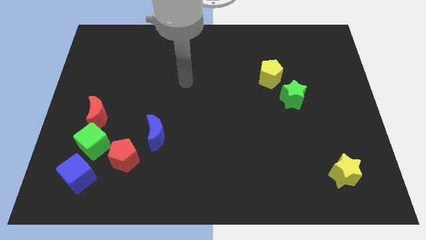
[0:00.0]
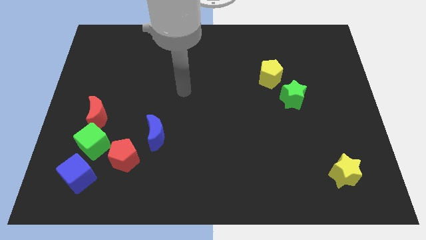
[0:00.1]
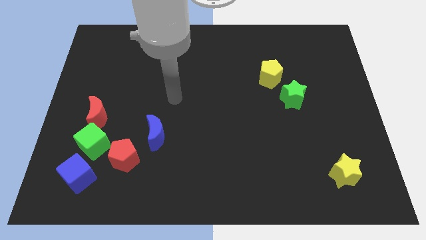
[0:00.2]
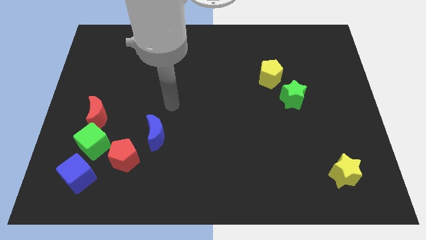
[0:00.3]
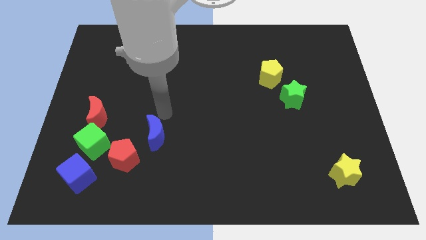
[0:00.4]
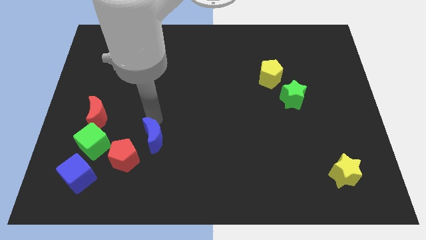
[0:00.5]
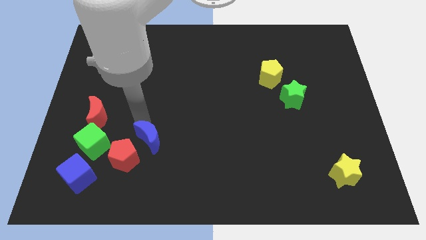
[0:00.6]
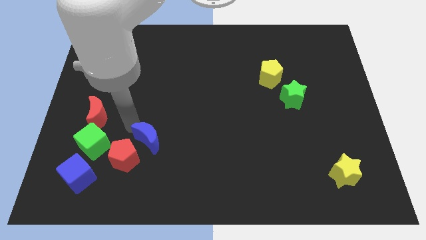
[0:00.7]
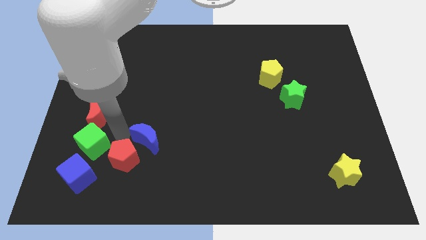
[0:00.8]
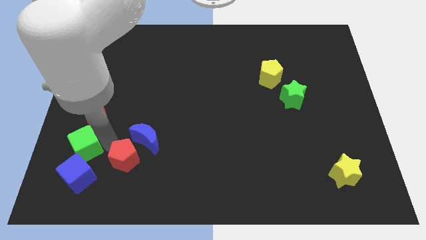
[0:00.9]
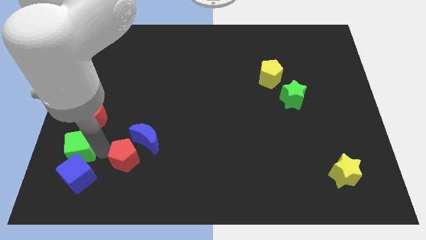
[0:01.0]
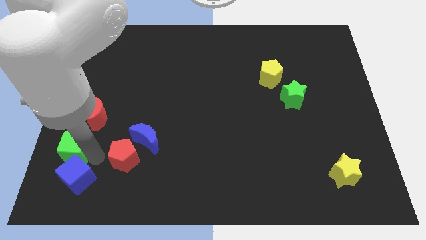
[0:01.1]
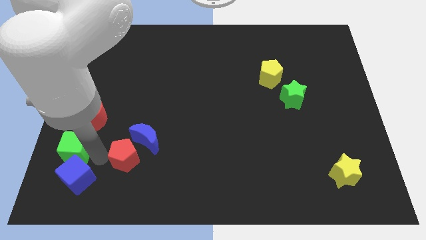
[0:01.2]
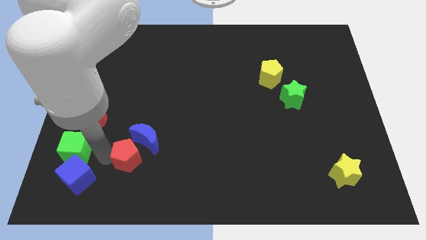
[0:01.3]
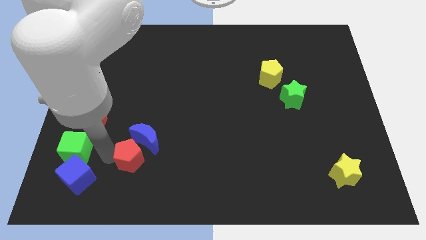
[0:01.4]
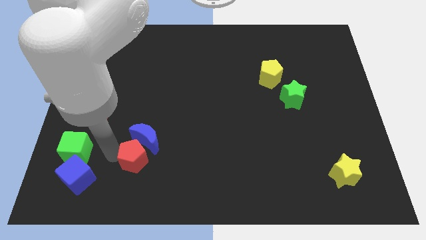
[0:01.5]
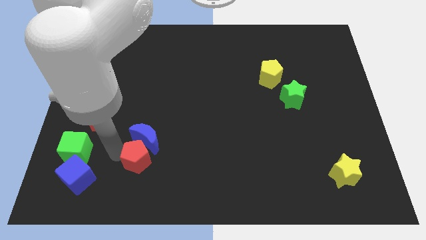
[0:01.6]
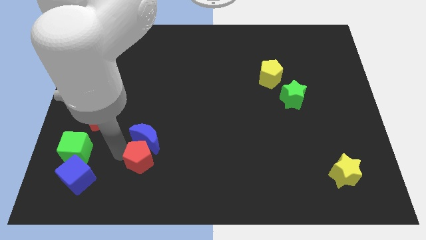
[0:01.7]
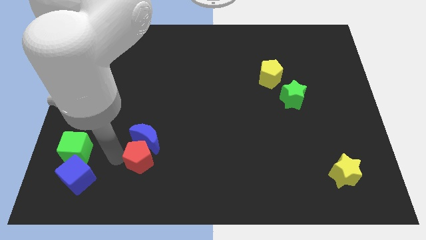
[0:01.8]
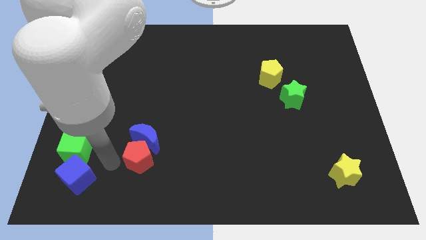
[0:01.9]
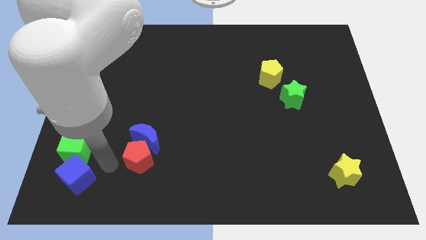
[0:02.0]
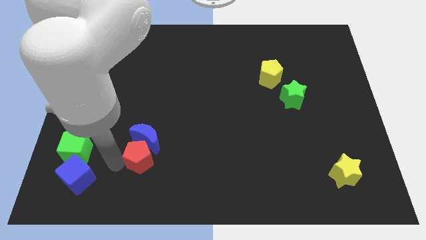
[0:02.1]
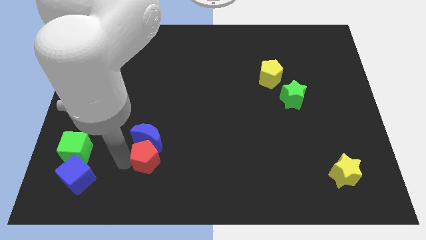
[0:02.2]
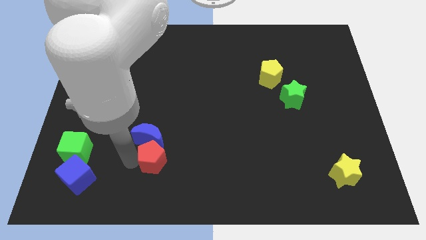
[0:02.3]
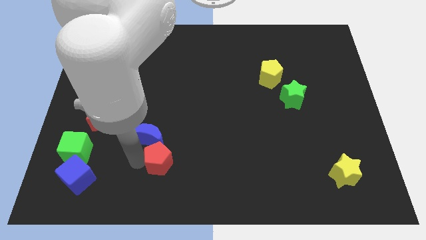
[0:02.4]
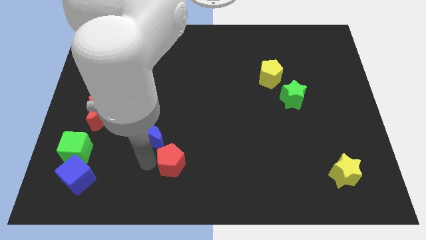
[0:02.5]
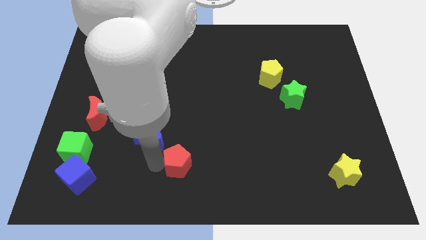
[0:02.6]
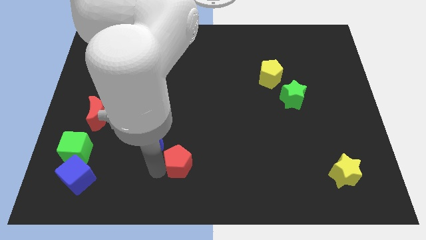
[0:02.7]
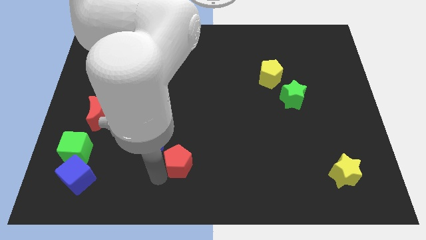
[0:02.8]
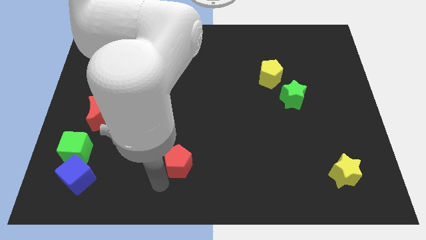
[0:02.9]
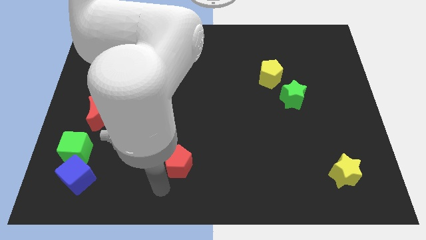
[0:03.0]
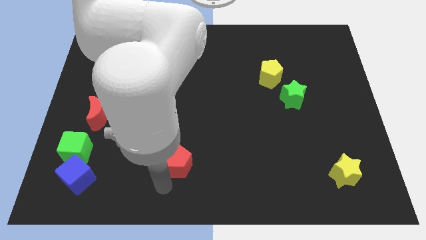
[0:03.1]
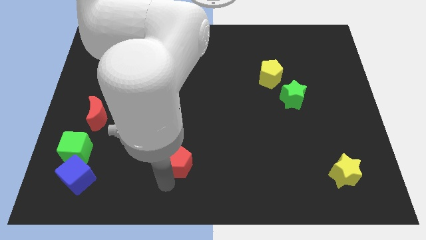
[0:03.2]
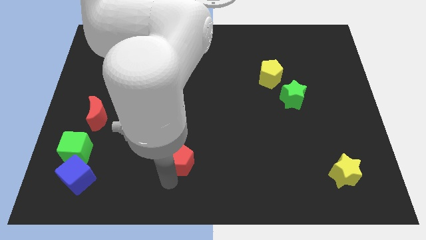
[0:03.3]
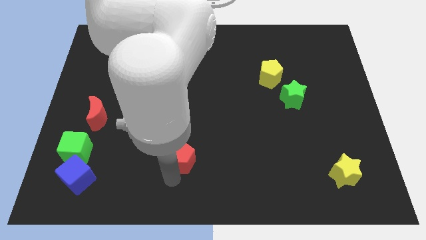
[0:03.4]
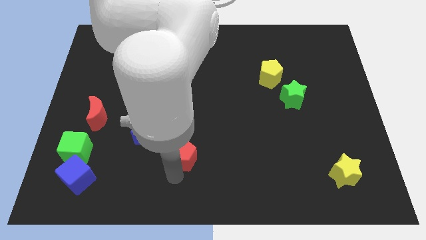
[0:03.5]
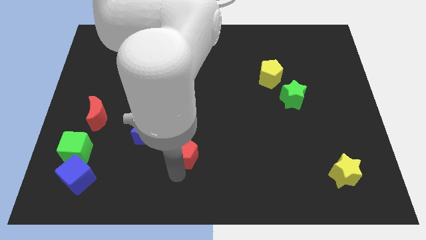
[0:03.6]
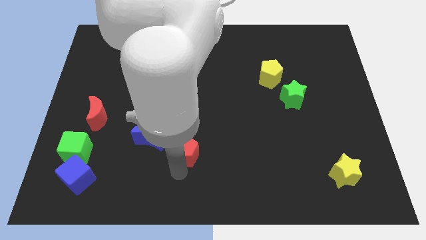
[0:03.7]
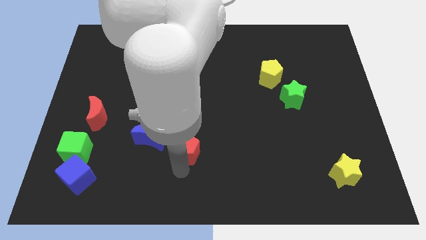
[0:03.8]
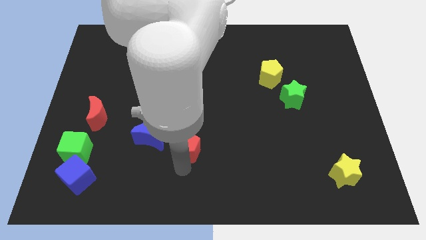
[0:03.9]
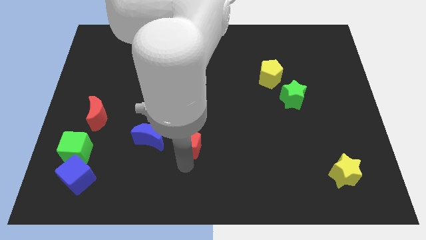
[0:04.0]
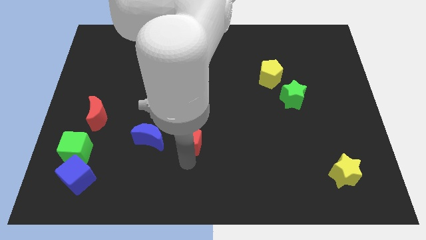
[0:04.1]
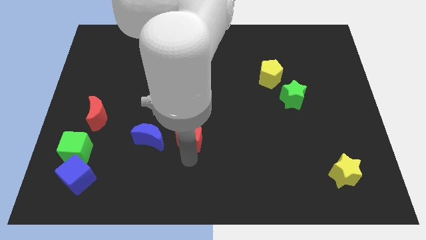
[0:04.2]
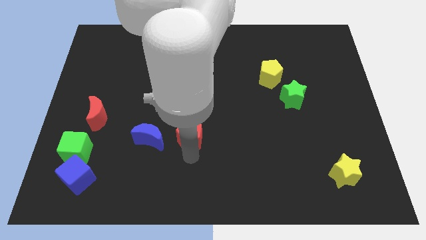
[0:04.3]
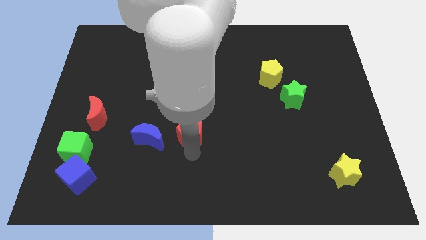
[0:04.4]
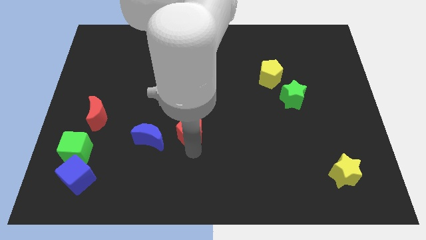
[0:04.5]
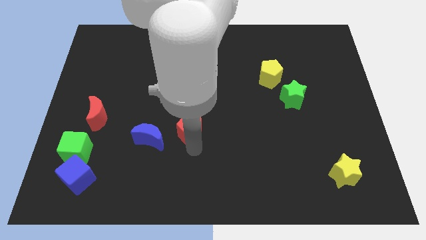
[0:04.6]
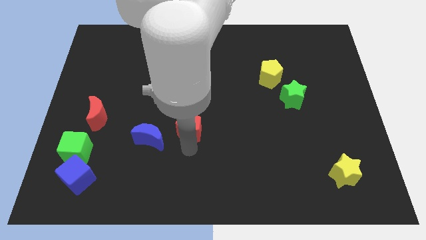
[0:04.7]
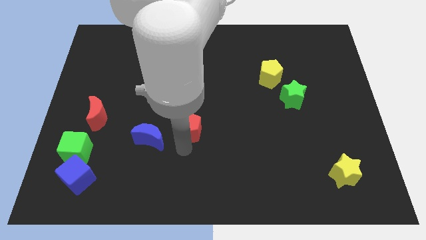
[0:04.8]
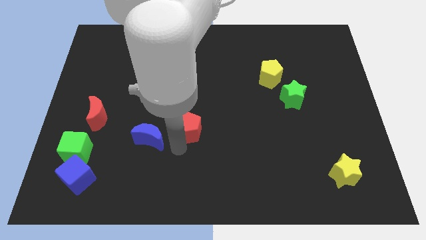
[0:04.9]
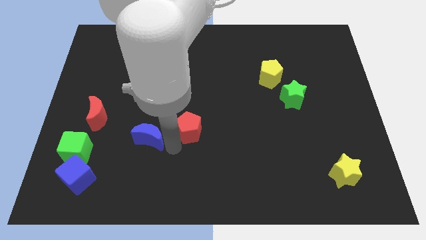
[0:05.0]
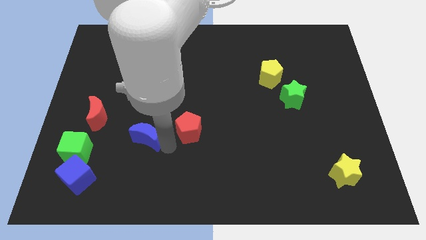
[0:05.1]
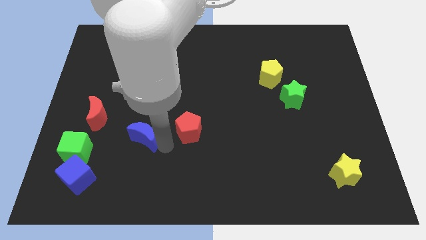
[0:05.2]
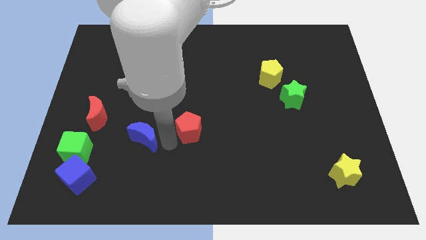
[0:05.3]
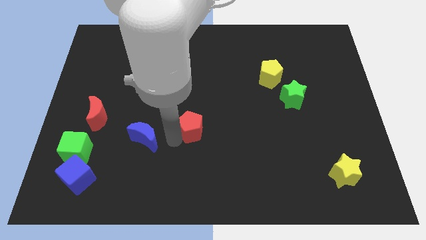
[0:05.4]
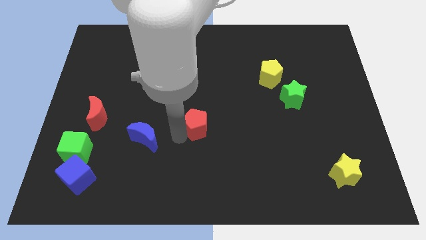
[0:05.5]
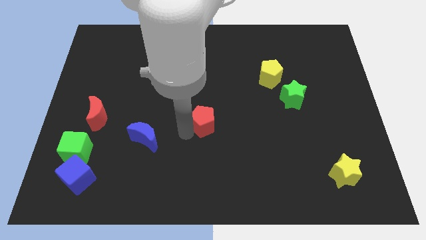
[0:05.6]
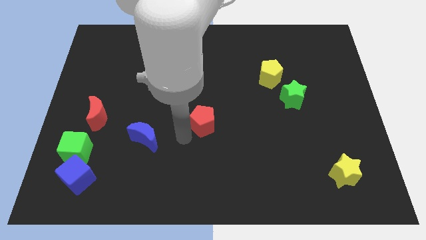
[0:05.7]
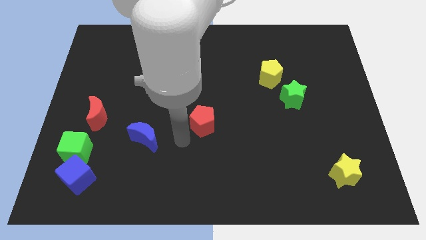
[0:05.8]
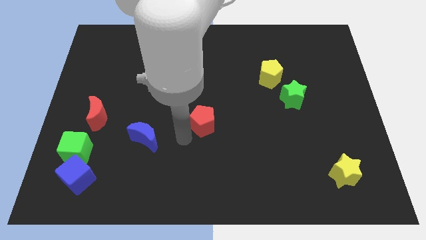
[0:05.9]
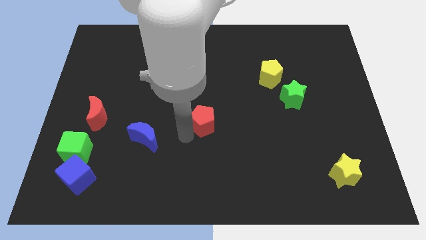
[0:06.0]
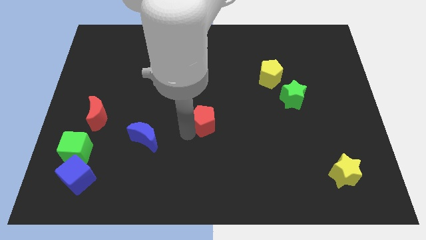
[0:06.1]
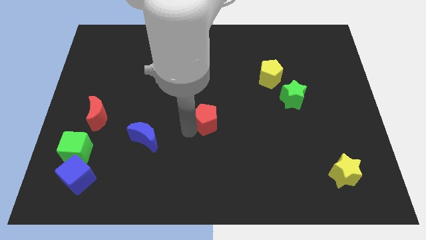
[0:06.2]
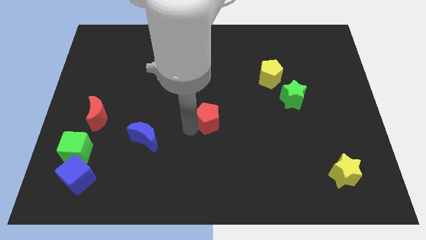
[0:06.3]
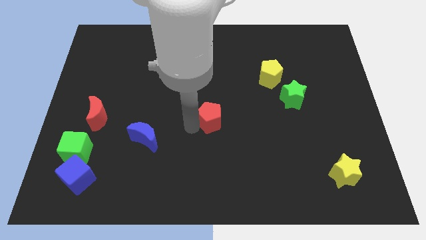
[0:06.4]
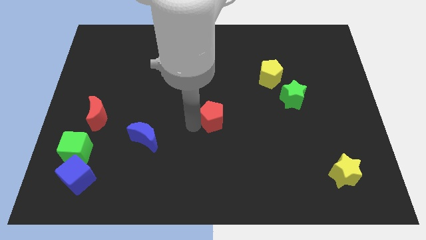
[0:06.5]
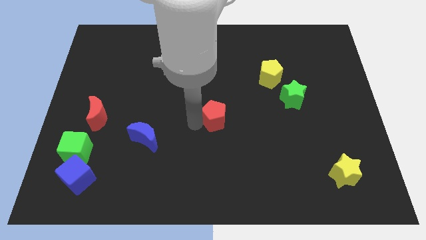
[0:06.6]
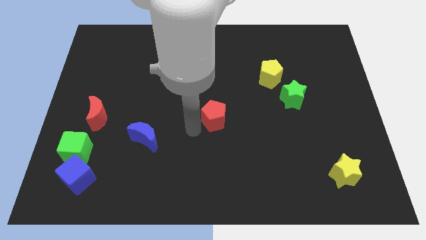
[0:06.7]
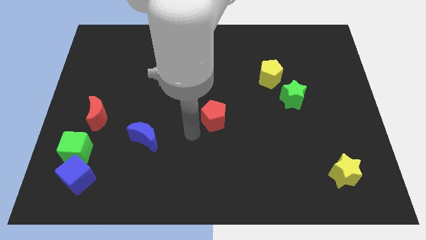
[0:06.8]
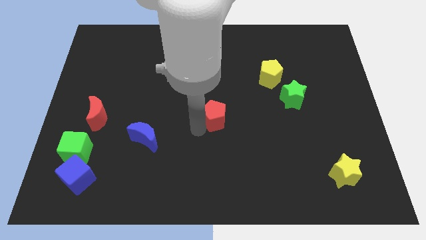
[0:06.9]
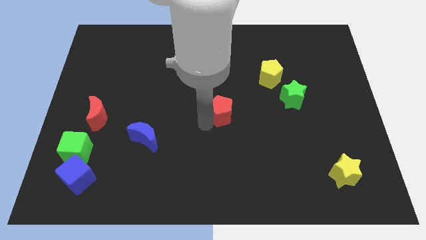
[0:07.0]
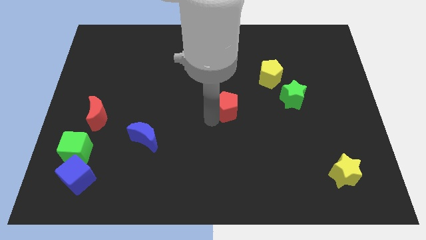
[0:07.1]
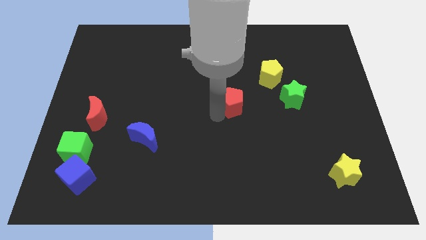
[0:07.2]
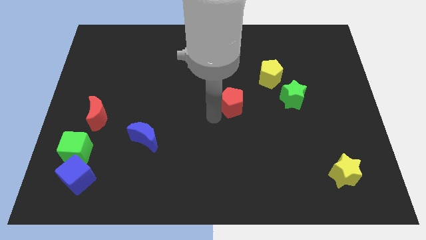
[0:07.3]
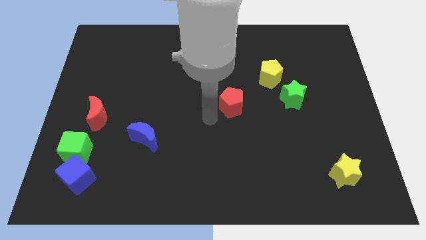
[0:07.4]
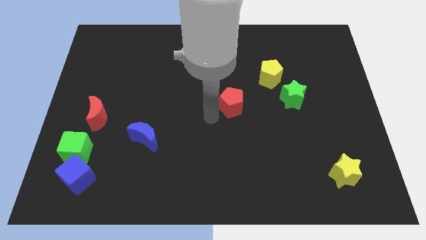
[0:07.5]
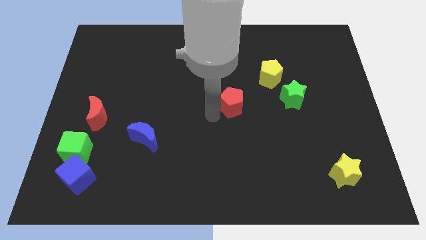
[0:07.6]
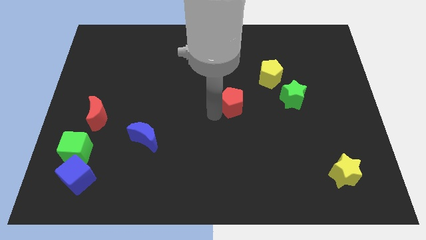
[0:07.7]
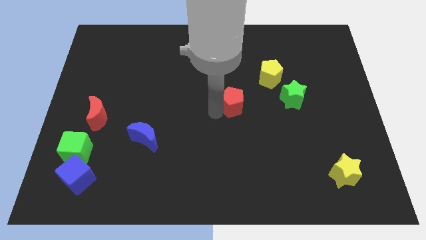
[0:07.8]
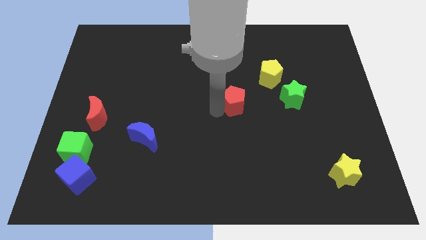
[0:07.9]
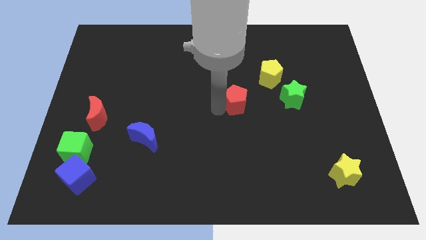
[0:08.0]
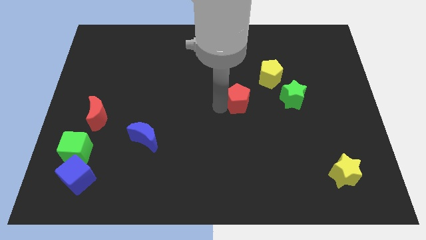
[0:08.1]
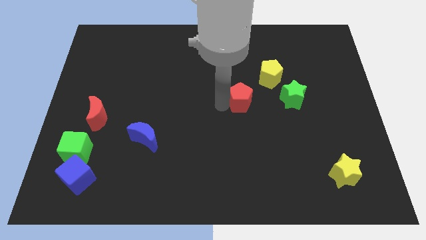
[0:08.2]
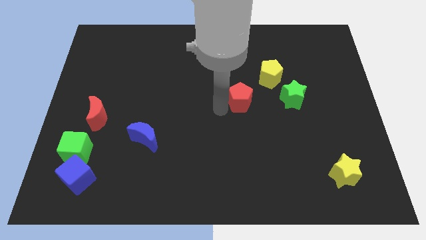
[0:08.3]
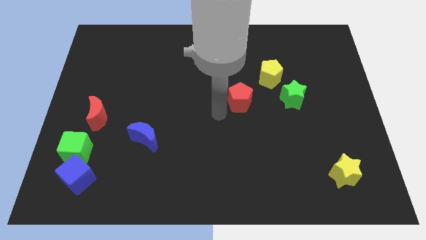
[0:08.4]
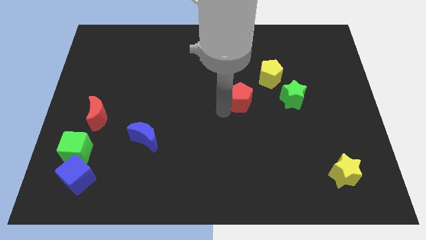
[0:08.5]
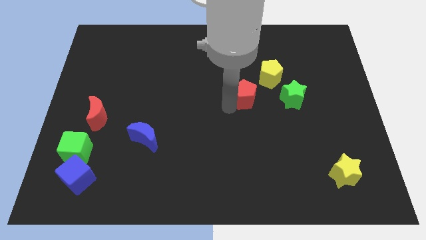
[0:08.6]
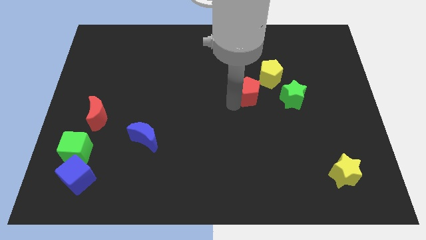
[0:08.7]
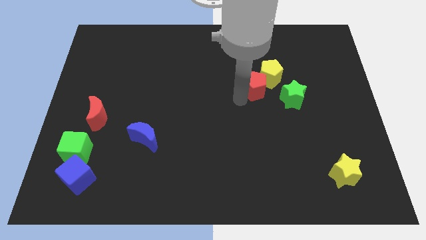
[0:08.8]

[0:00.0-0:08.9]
slide the red pentagon close to the yellow pentagon
